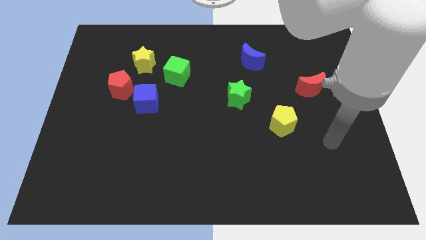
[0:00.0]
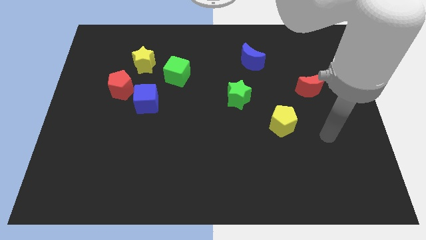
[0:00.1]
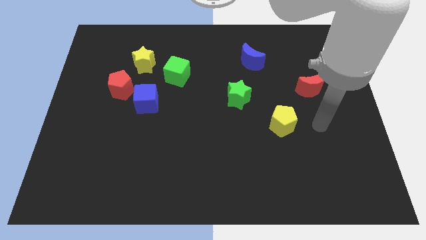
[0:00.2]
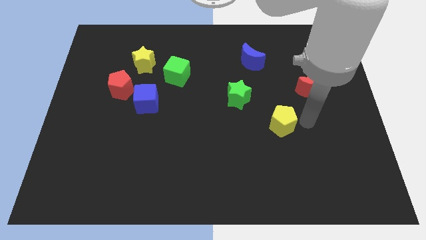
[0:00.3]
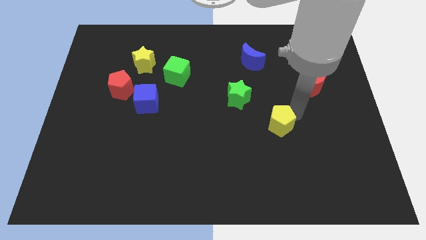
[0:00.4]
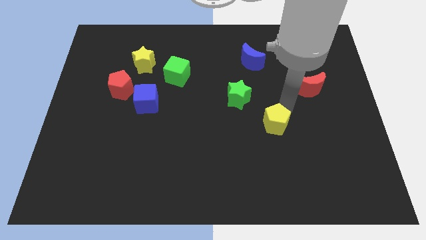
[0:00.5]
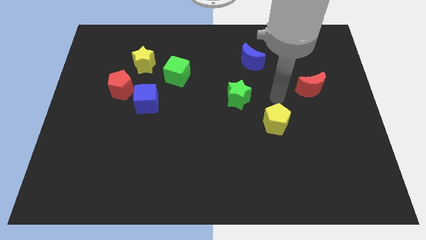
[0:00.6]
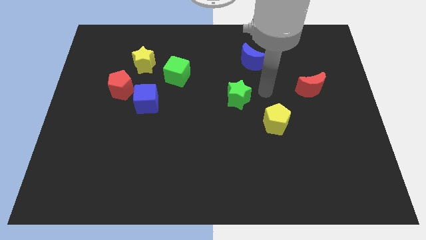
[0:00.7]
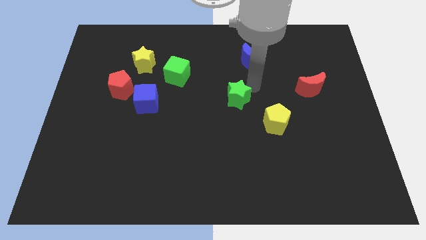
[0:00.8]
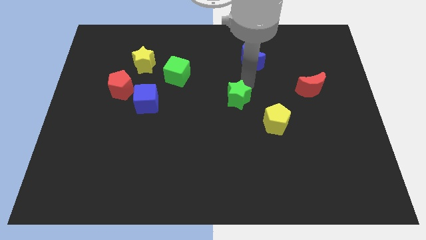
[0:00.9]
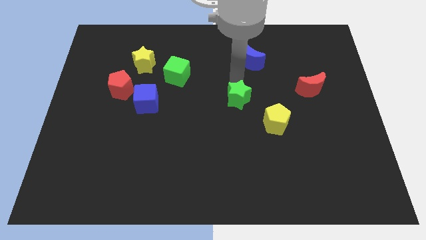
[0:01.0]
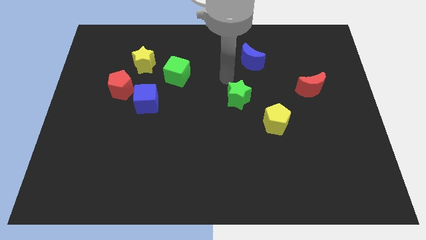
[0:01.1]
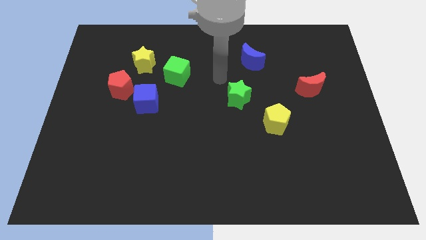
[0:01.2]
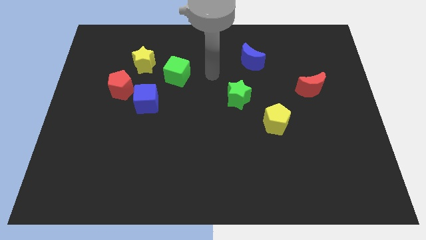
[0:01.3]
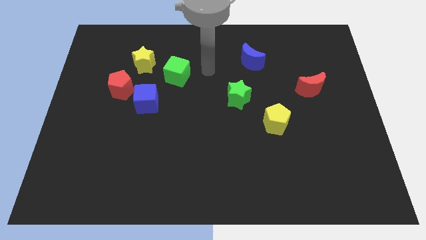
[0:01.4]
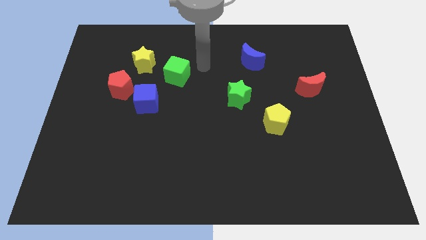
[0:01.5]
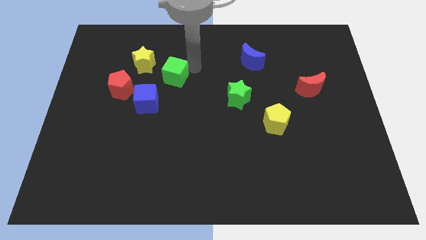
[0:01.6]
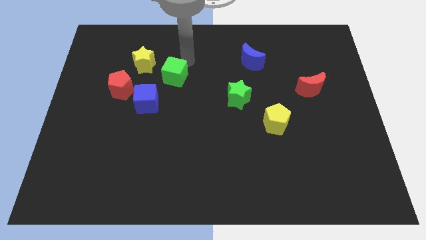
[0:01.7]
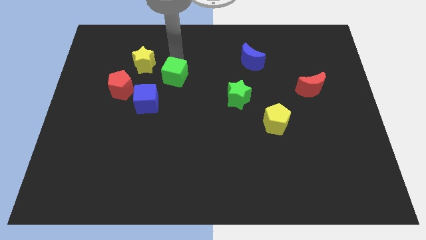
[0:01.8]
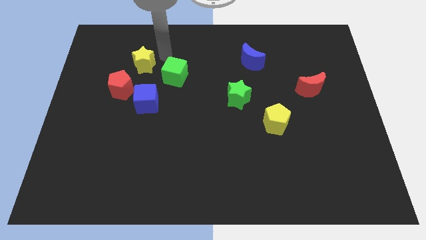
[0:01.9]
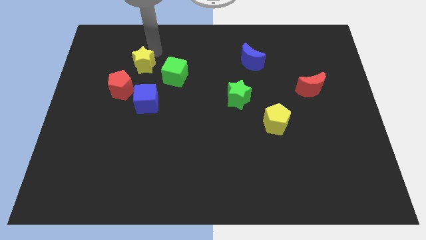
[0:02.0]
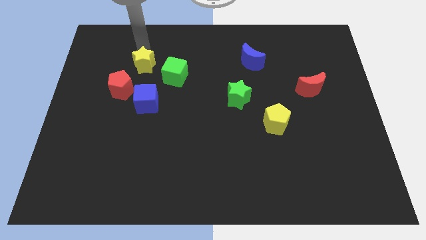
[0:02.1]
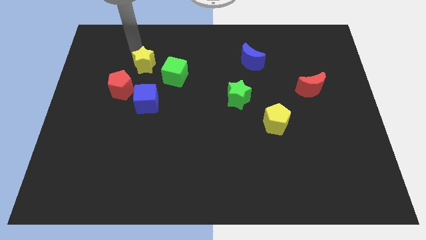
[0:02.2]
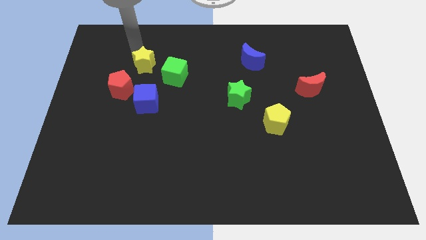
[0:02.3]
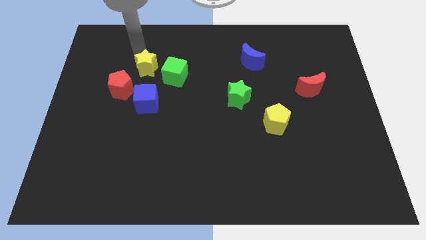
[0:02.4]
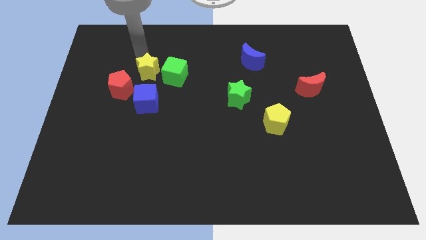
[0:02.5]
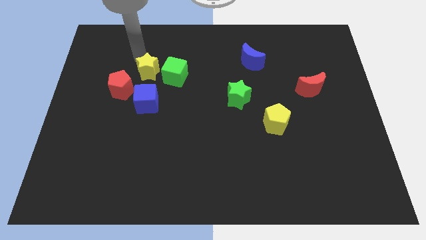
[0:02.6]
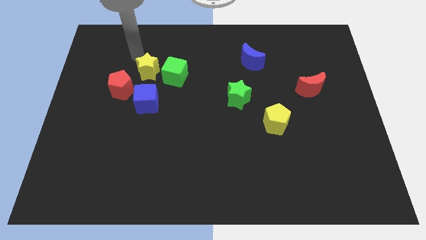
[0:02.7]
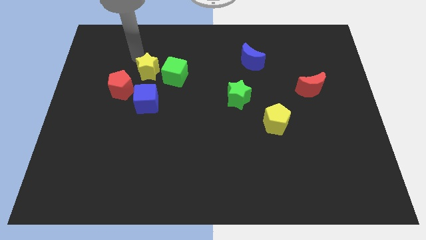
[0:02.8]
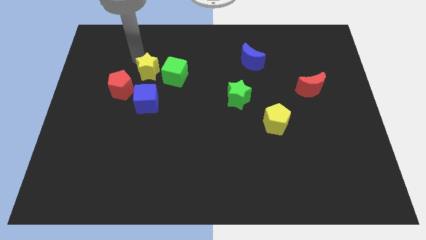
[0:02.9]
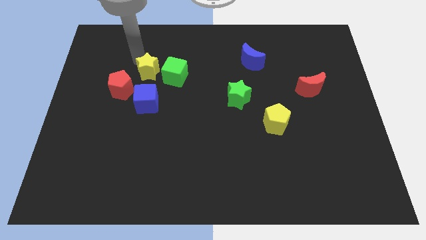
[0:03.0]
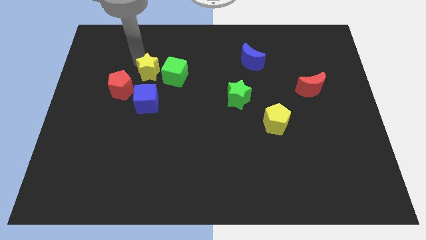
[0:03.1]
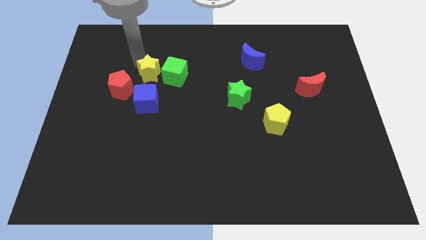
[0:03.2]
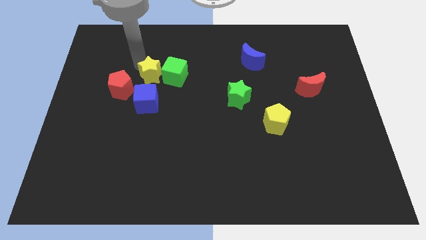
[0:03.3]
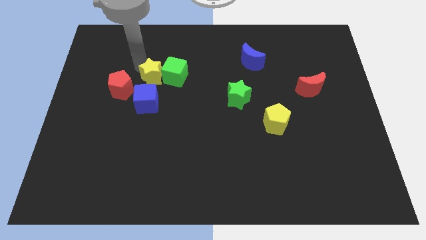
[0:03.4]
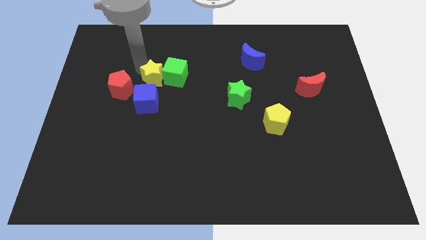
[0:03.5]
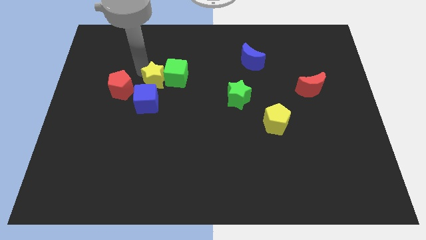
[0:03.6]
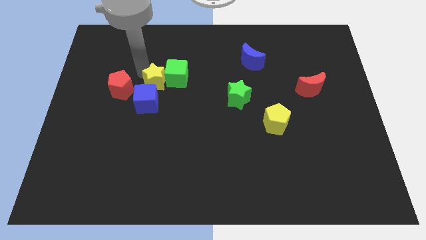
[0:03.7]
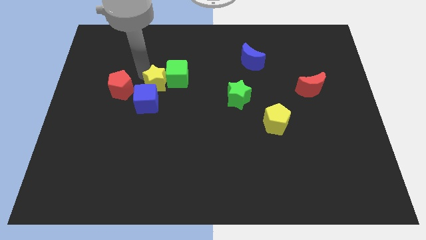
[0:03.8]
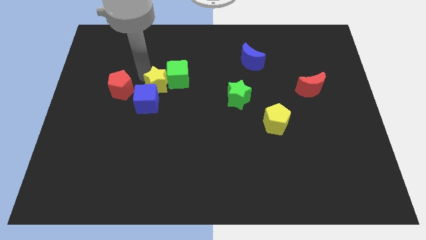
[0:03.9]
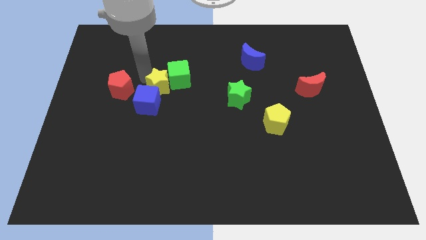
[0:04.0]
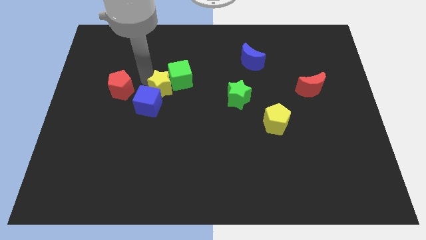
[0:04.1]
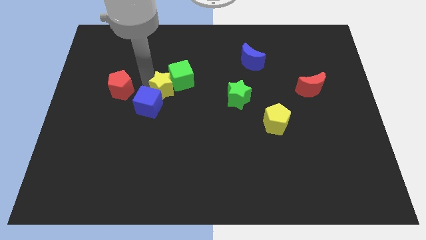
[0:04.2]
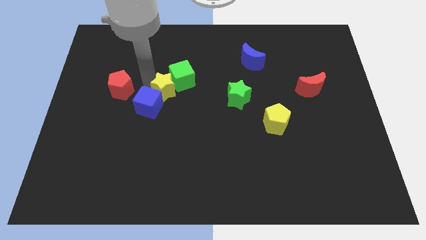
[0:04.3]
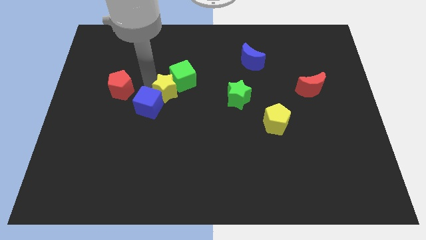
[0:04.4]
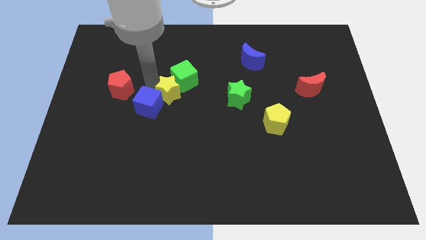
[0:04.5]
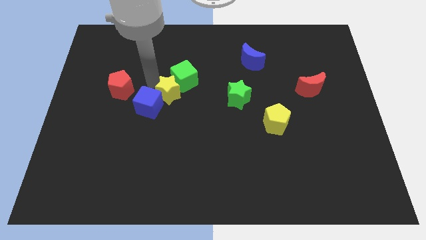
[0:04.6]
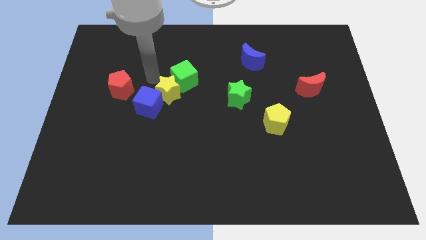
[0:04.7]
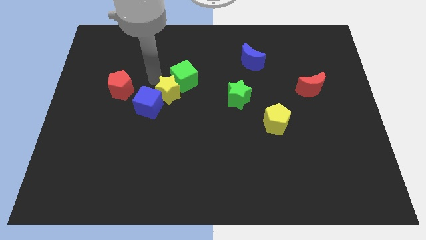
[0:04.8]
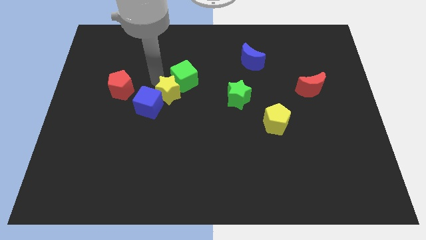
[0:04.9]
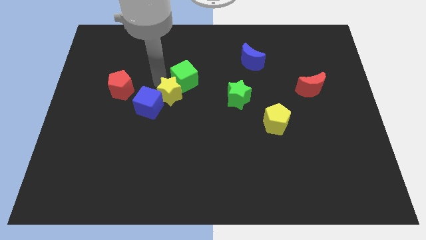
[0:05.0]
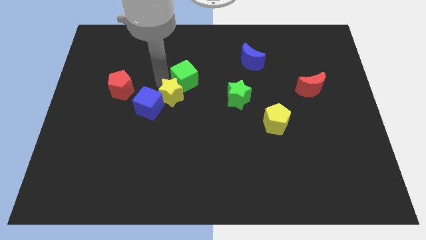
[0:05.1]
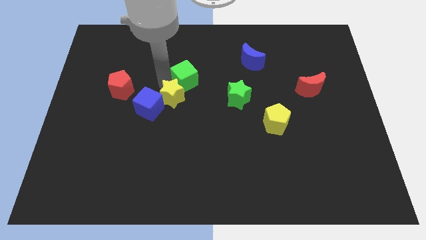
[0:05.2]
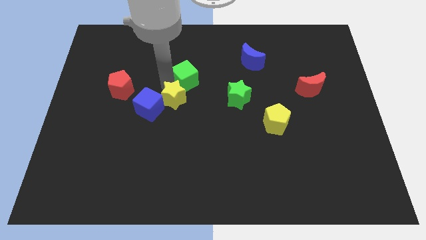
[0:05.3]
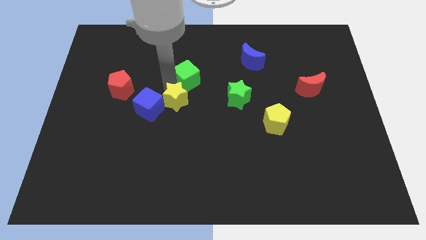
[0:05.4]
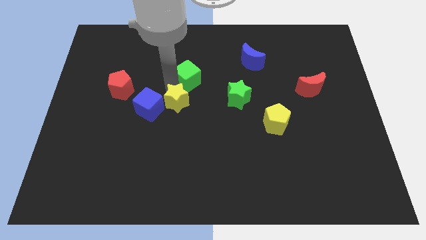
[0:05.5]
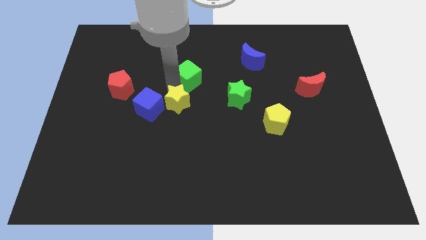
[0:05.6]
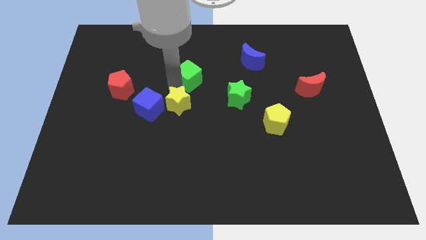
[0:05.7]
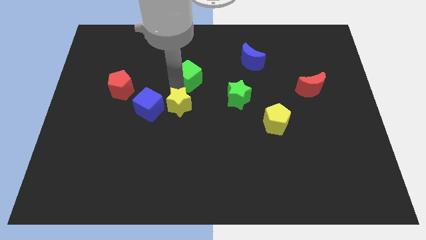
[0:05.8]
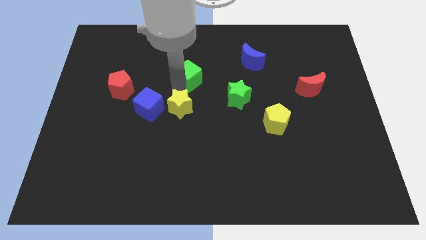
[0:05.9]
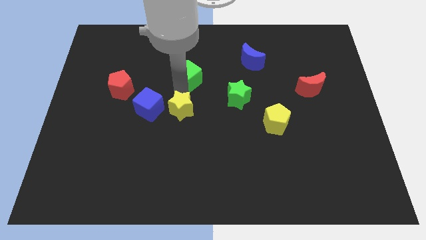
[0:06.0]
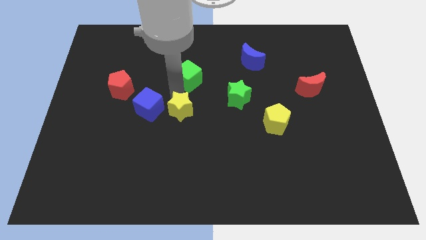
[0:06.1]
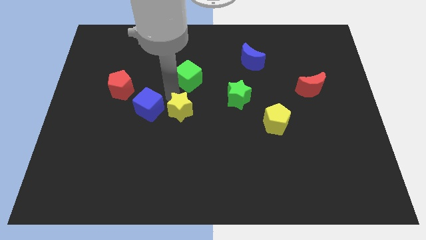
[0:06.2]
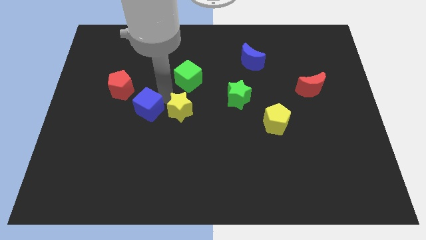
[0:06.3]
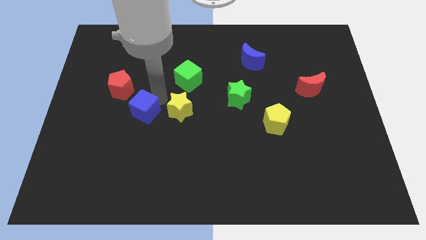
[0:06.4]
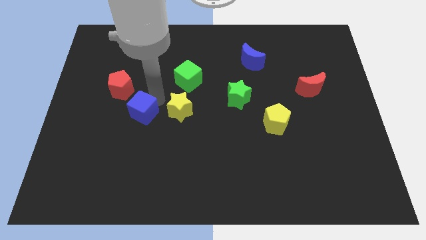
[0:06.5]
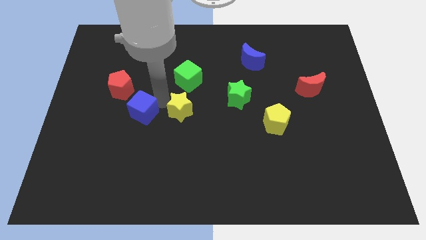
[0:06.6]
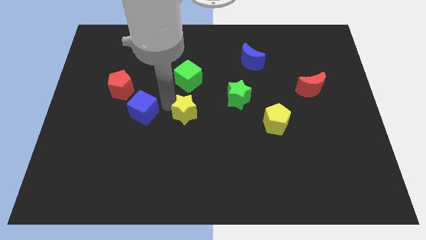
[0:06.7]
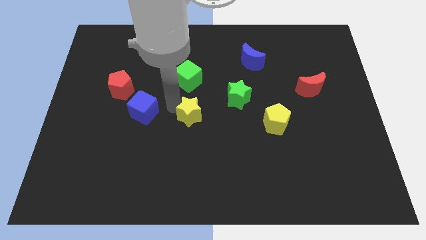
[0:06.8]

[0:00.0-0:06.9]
push the yellow star downwards and to the right diagonally

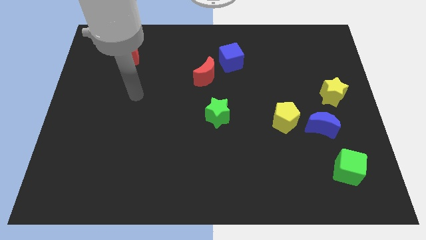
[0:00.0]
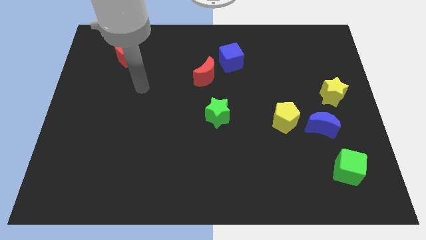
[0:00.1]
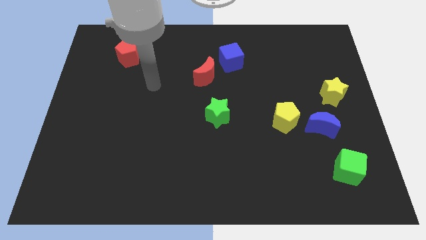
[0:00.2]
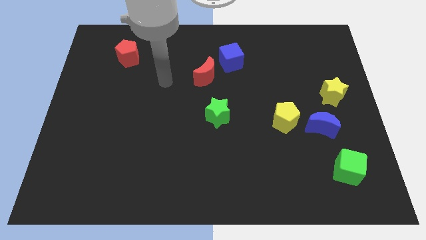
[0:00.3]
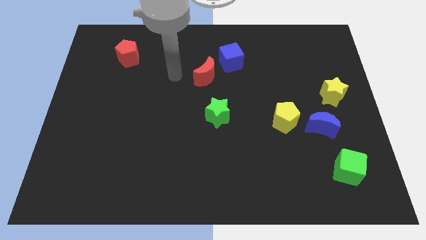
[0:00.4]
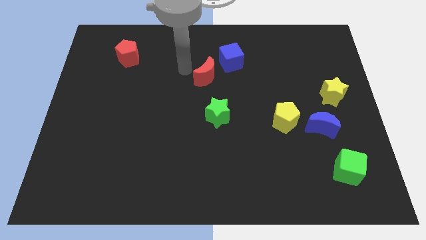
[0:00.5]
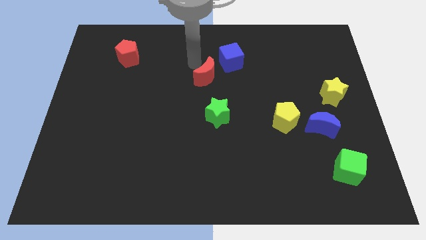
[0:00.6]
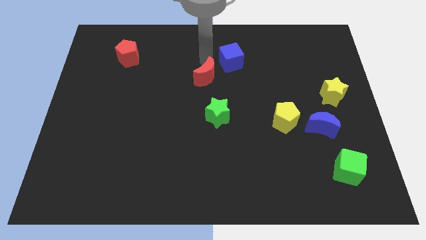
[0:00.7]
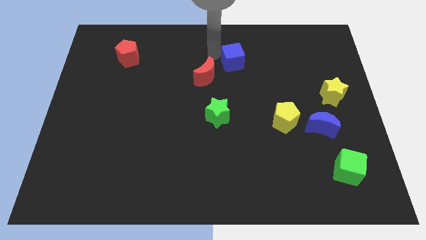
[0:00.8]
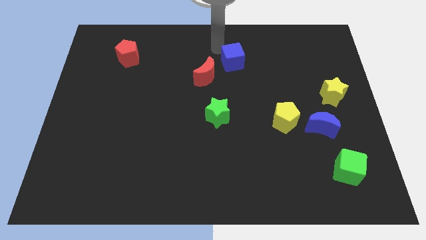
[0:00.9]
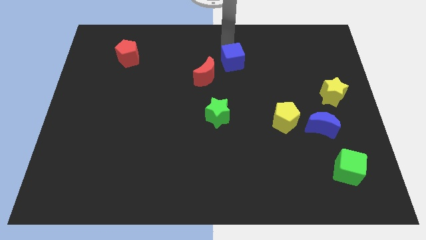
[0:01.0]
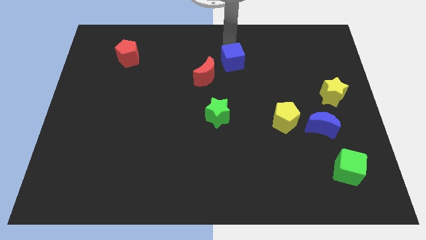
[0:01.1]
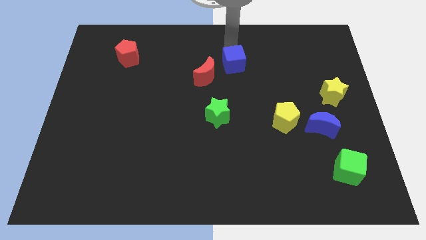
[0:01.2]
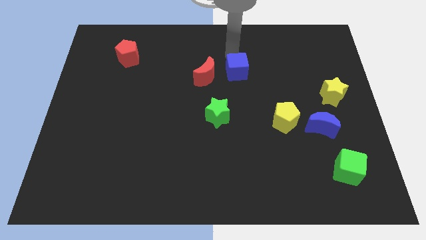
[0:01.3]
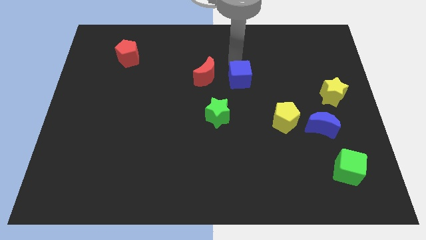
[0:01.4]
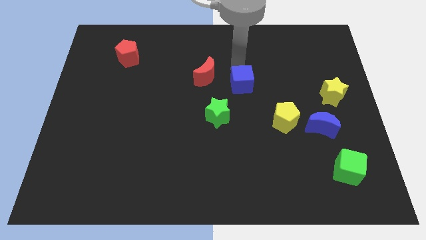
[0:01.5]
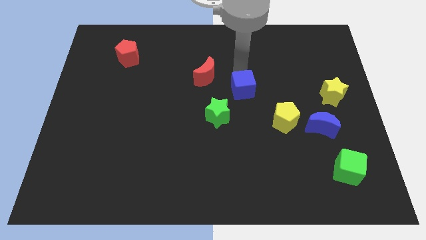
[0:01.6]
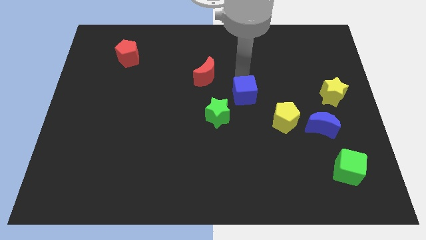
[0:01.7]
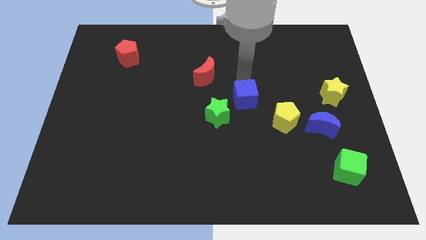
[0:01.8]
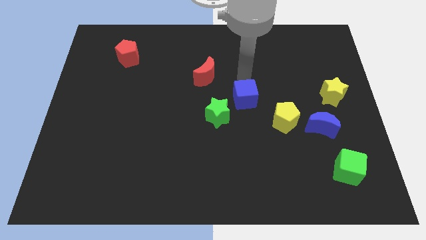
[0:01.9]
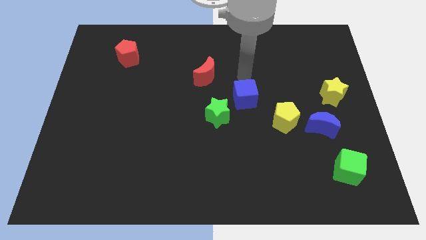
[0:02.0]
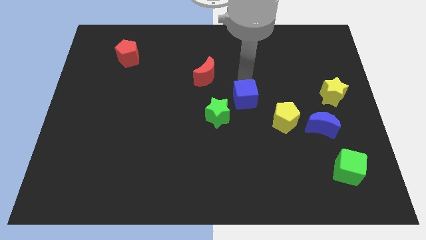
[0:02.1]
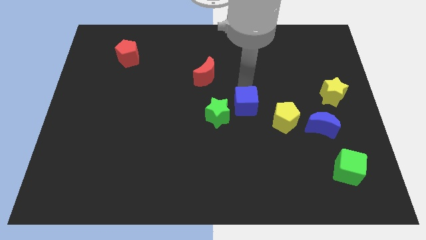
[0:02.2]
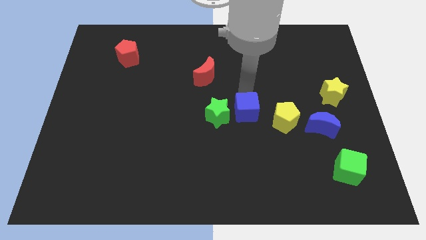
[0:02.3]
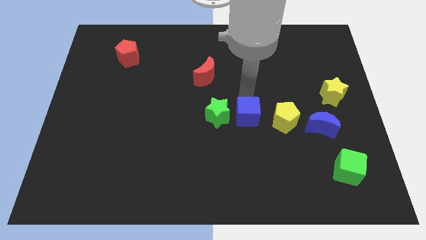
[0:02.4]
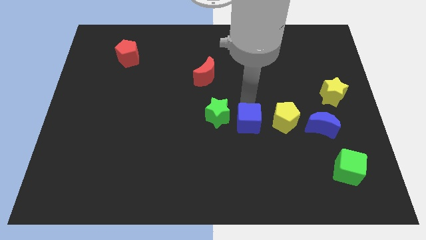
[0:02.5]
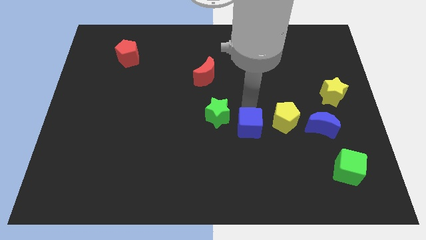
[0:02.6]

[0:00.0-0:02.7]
push the blue cube down
